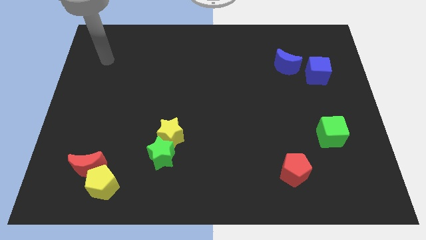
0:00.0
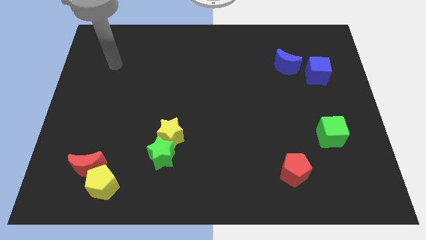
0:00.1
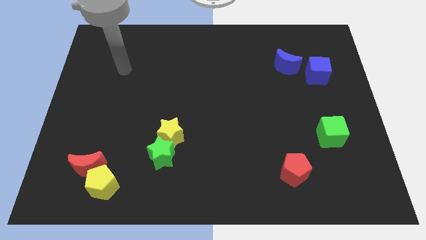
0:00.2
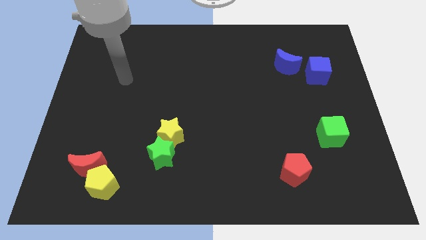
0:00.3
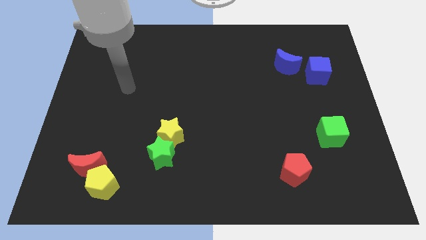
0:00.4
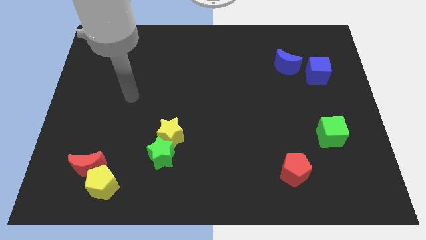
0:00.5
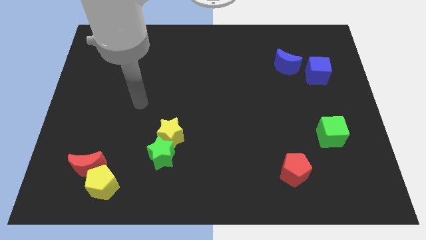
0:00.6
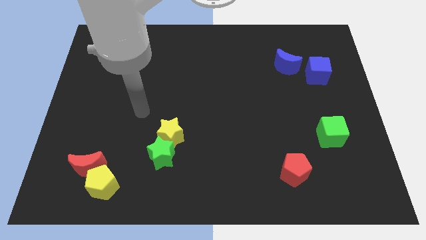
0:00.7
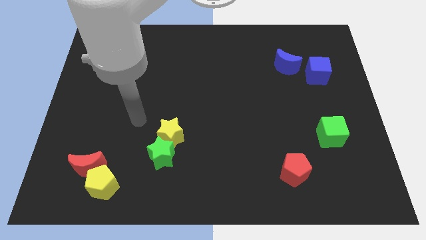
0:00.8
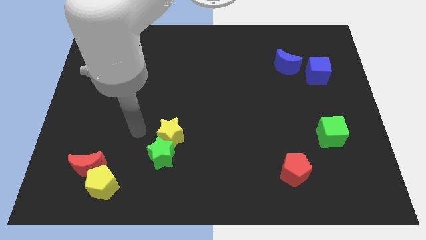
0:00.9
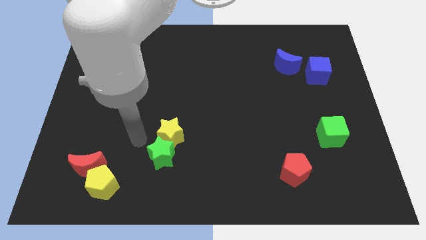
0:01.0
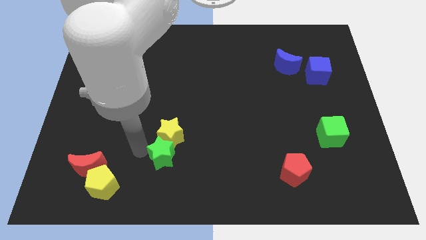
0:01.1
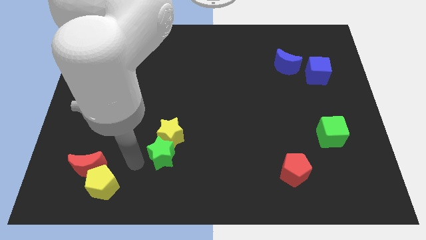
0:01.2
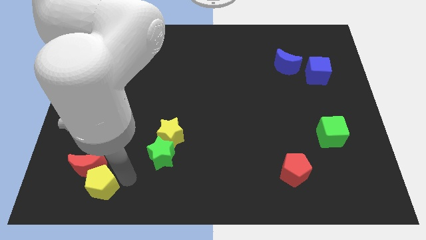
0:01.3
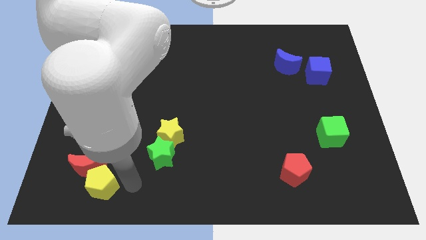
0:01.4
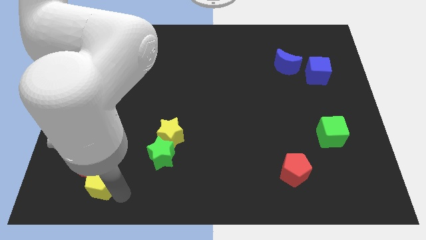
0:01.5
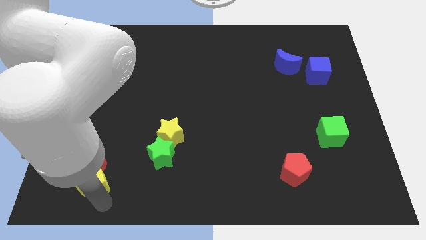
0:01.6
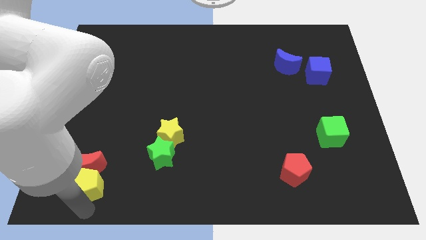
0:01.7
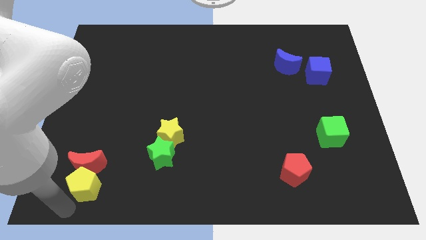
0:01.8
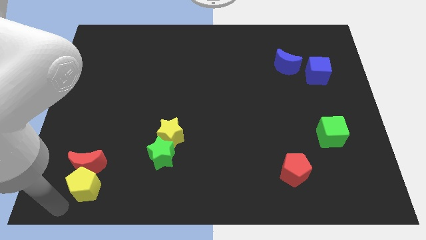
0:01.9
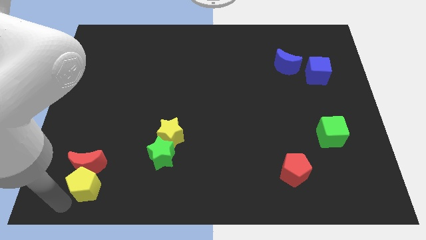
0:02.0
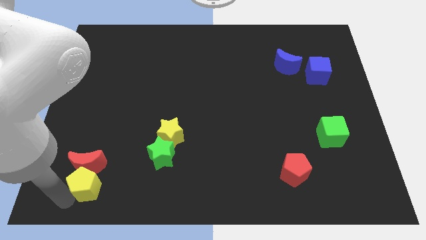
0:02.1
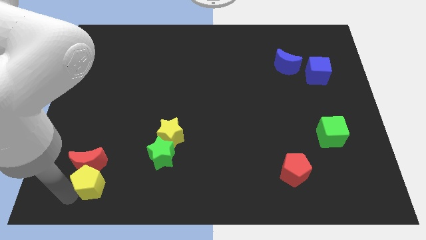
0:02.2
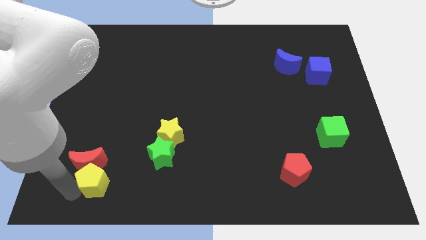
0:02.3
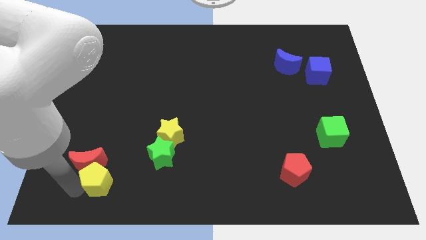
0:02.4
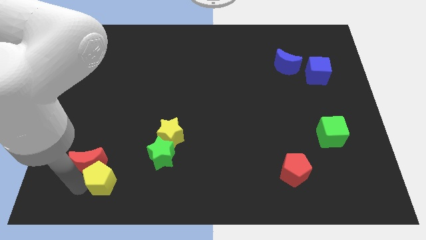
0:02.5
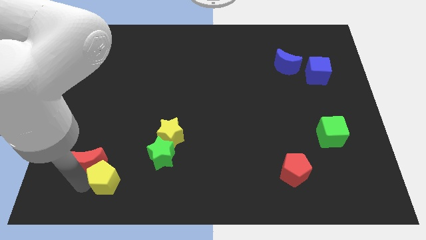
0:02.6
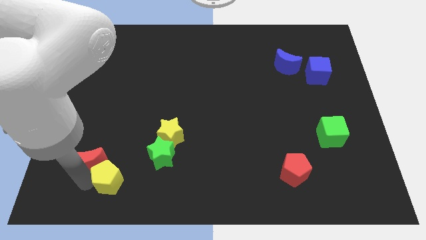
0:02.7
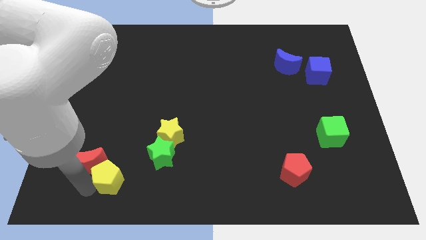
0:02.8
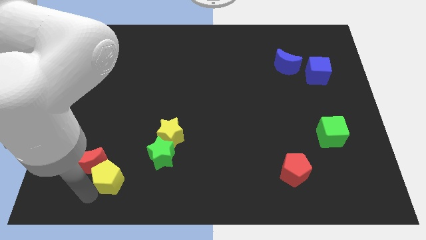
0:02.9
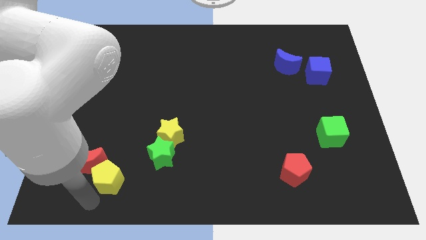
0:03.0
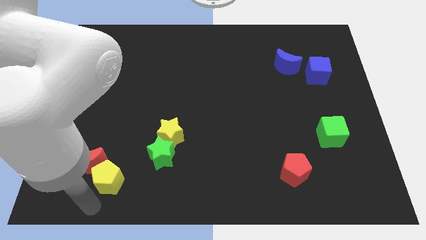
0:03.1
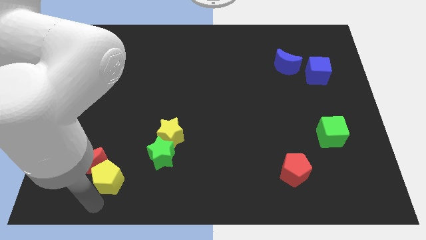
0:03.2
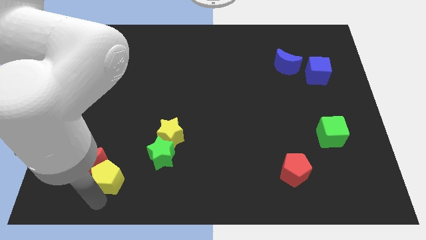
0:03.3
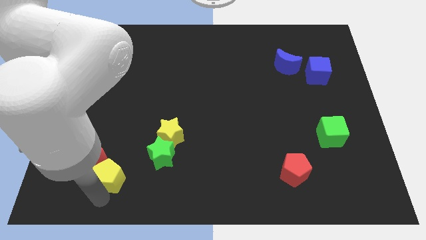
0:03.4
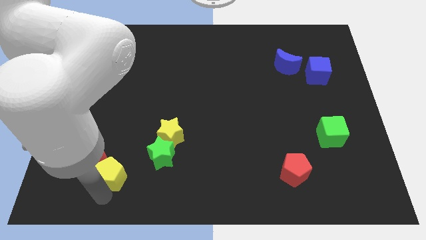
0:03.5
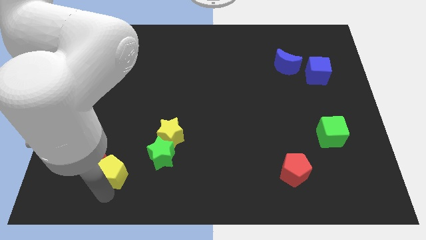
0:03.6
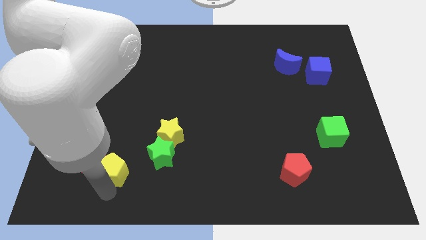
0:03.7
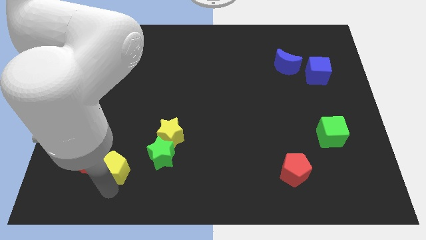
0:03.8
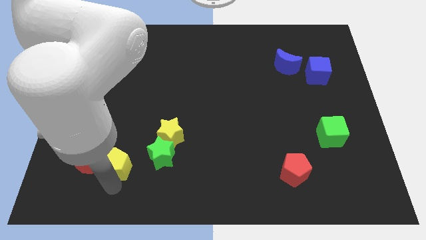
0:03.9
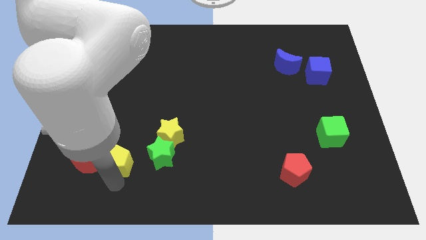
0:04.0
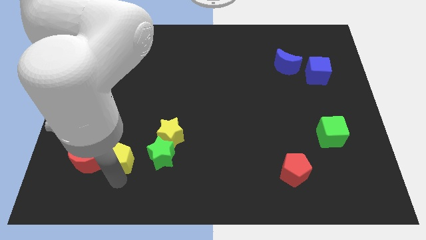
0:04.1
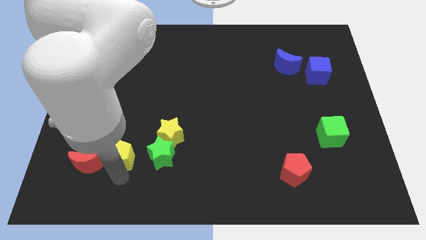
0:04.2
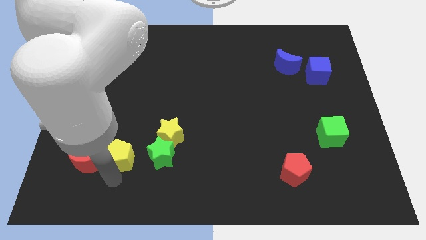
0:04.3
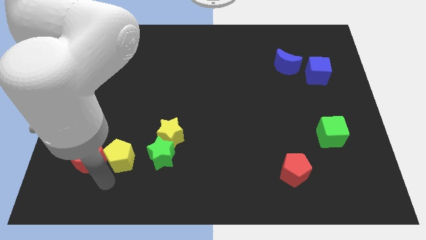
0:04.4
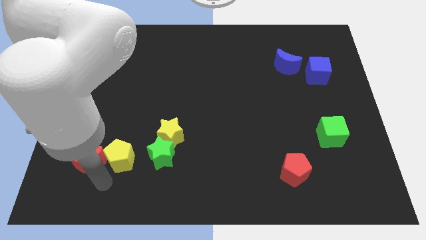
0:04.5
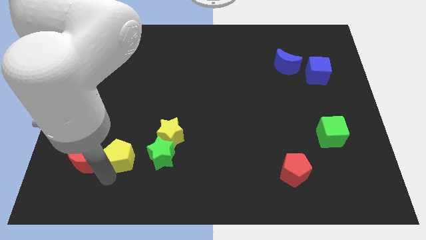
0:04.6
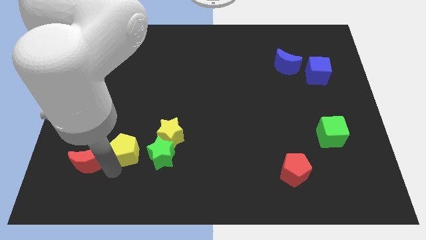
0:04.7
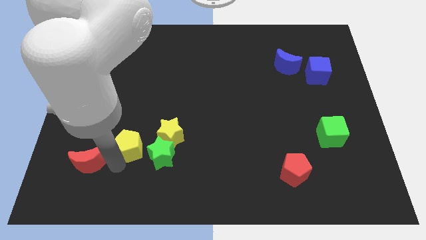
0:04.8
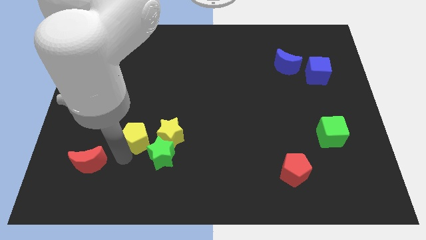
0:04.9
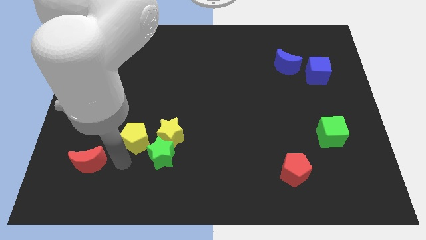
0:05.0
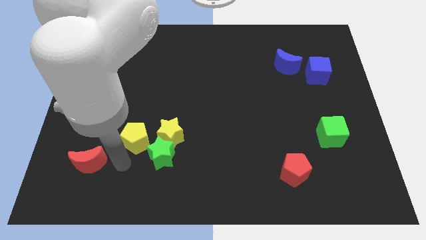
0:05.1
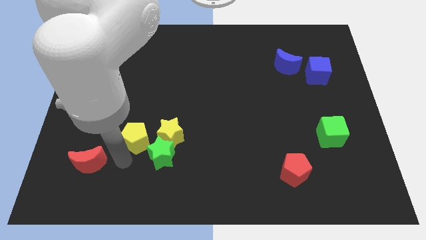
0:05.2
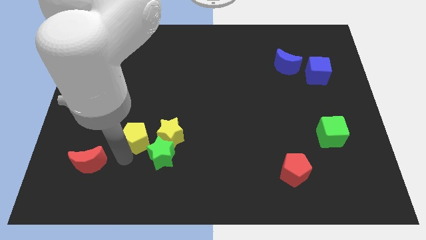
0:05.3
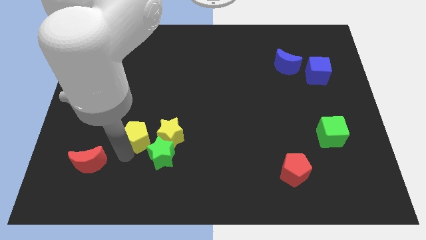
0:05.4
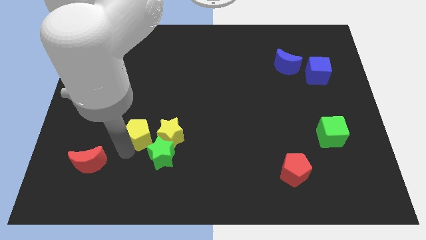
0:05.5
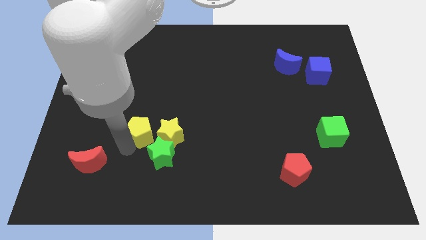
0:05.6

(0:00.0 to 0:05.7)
move the yellow pentagon diagonally up and to the left of the yellow star

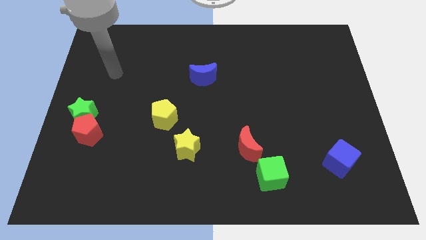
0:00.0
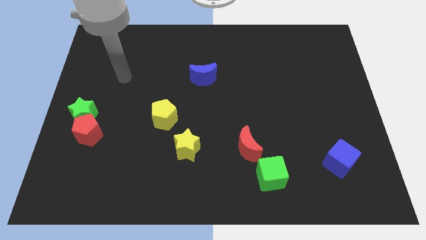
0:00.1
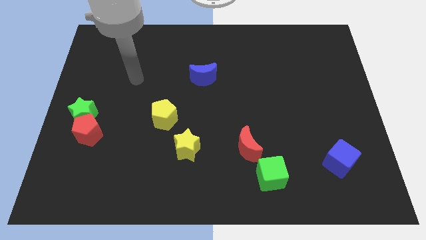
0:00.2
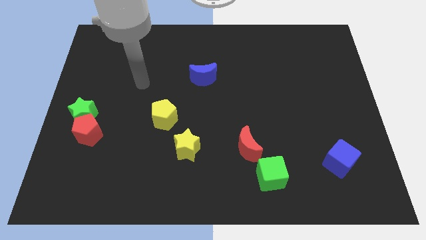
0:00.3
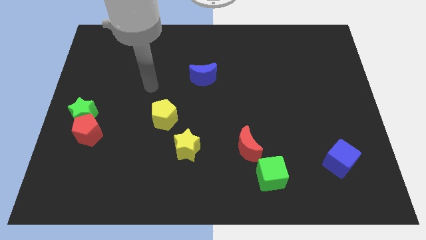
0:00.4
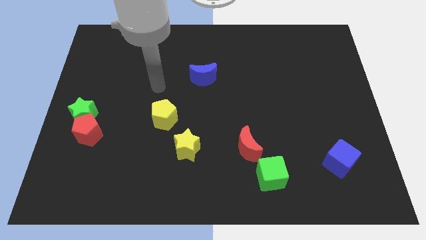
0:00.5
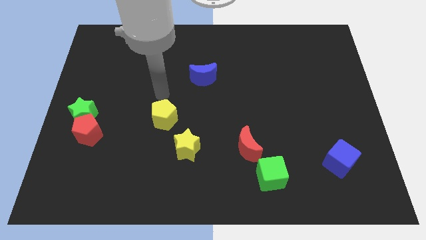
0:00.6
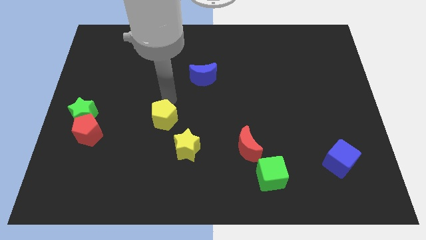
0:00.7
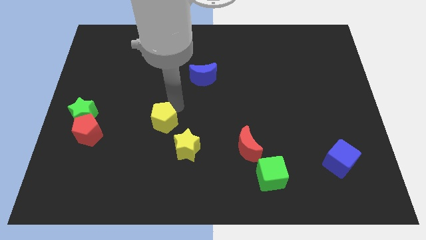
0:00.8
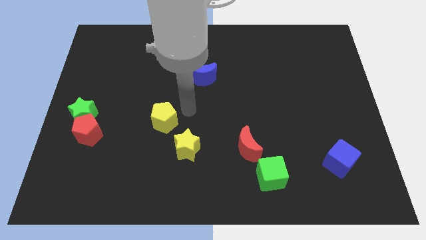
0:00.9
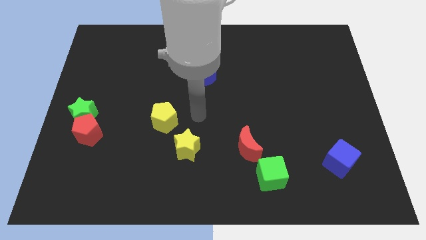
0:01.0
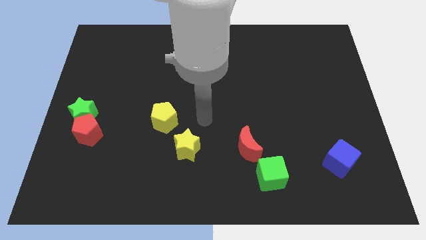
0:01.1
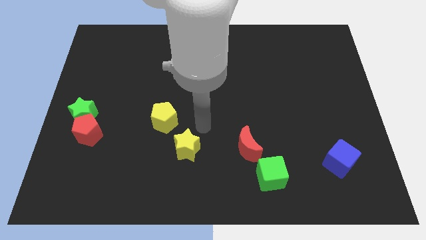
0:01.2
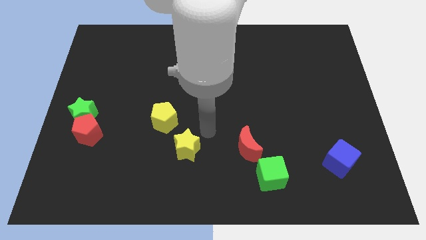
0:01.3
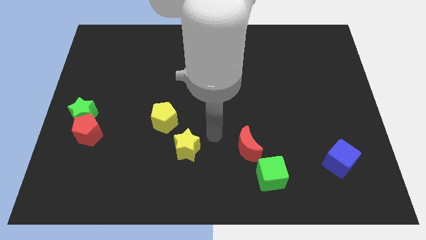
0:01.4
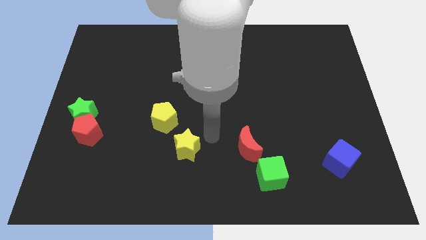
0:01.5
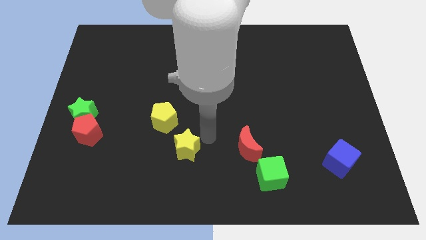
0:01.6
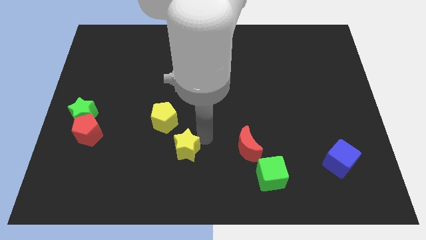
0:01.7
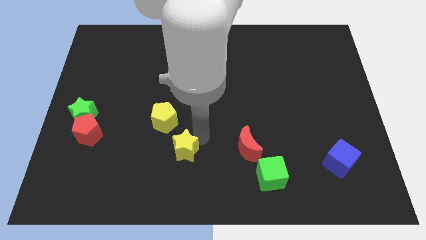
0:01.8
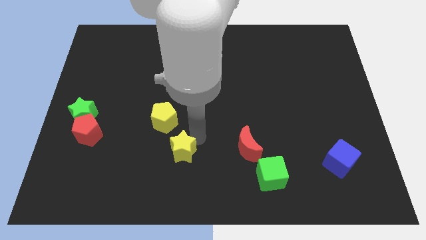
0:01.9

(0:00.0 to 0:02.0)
slide the yellow star to the bottom of the yellow pentagon
